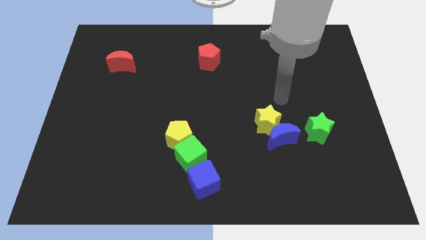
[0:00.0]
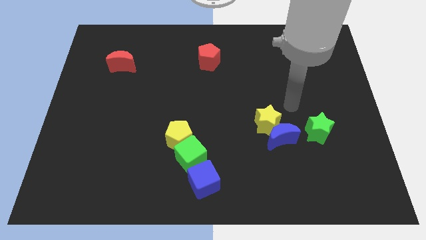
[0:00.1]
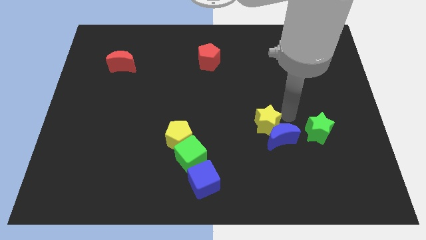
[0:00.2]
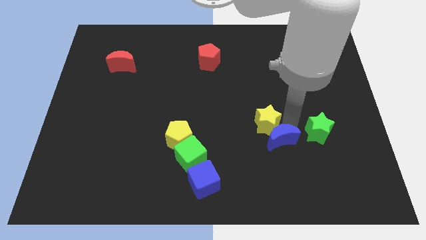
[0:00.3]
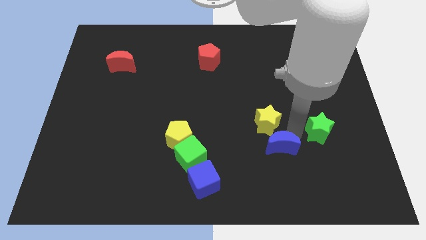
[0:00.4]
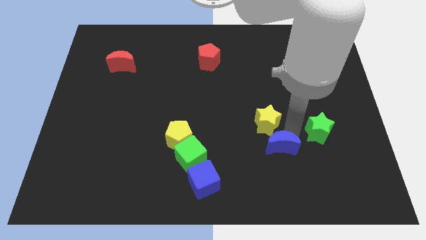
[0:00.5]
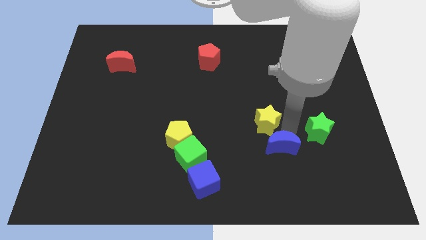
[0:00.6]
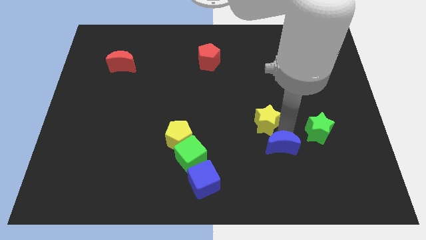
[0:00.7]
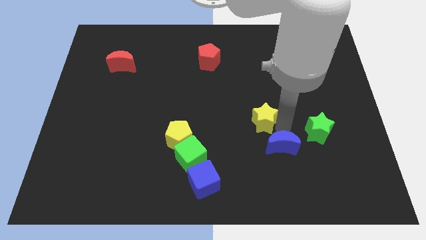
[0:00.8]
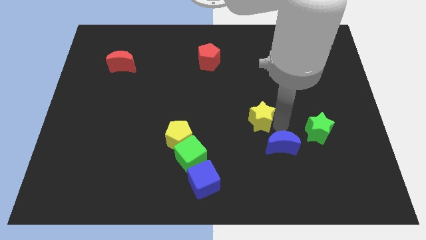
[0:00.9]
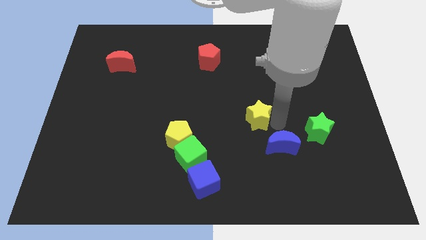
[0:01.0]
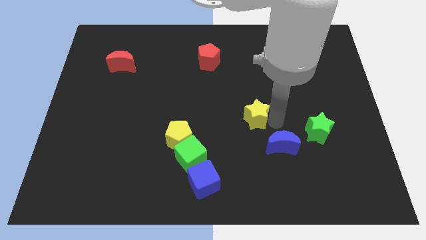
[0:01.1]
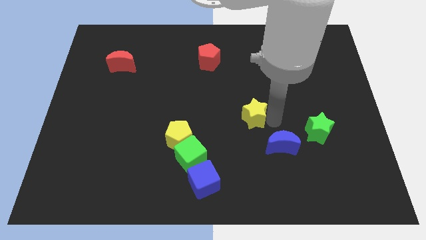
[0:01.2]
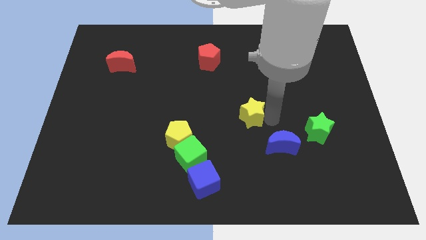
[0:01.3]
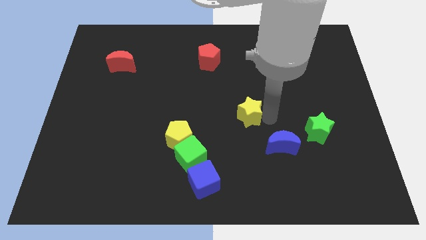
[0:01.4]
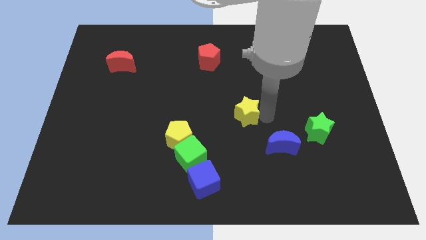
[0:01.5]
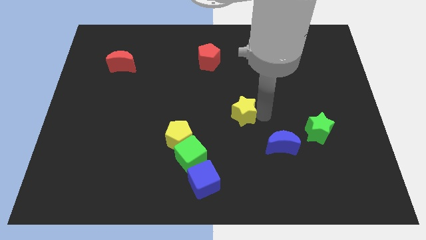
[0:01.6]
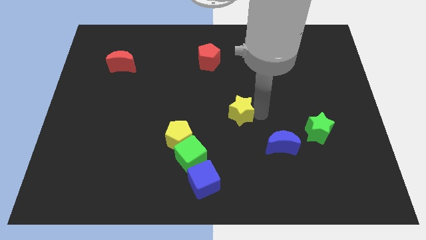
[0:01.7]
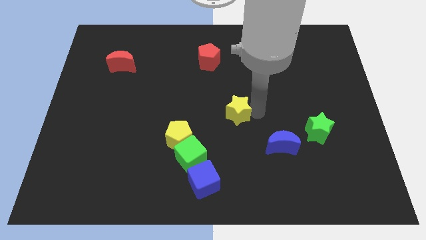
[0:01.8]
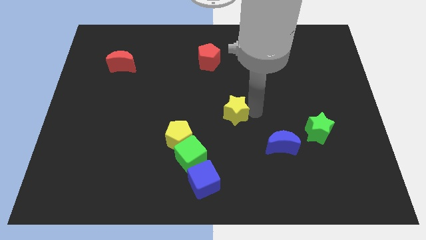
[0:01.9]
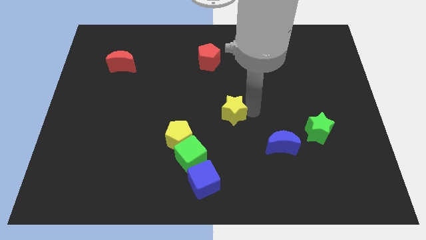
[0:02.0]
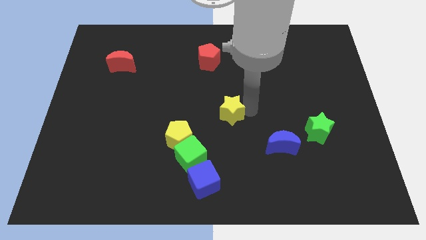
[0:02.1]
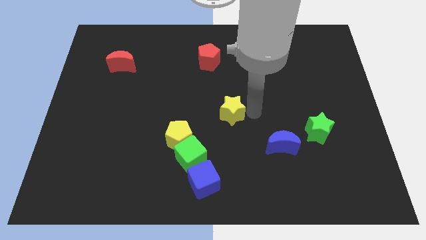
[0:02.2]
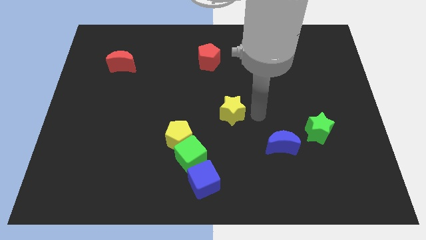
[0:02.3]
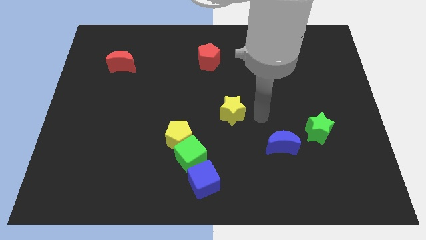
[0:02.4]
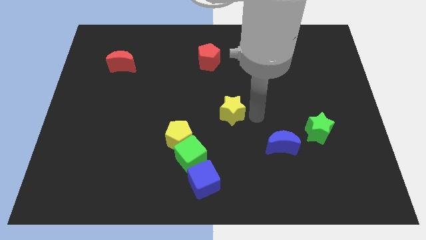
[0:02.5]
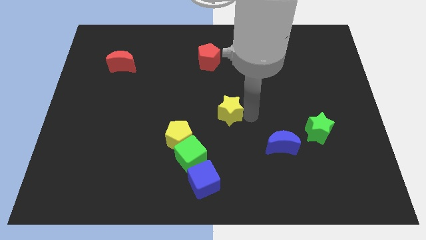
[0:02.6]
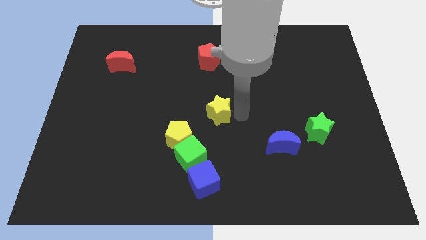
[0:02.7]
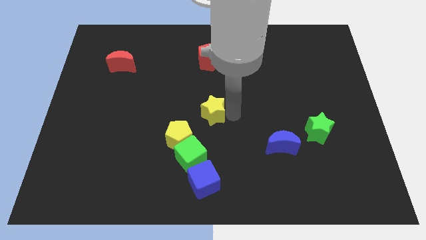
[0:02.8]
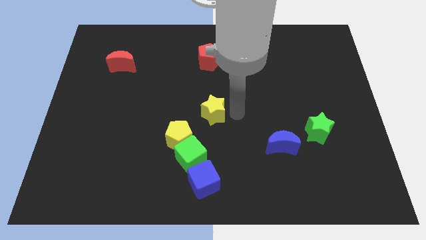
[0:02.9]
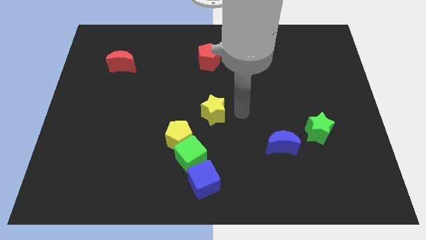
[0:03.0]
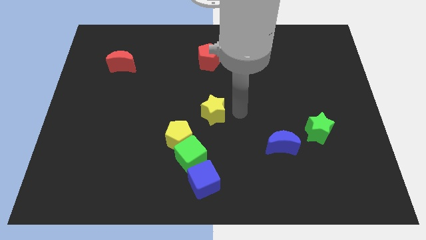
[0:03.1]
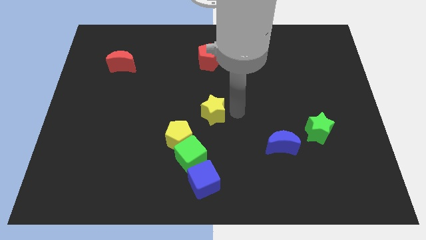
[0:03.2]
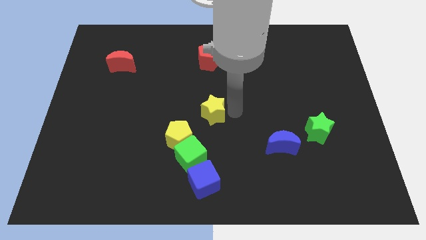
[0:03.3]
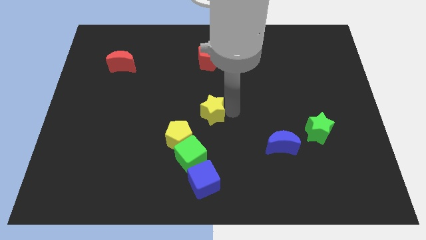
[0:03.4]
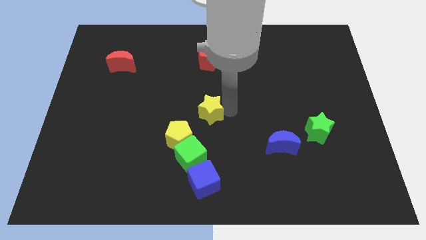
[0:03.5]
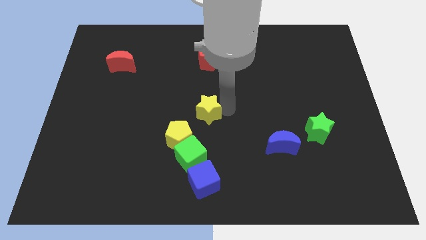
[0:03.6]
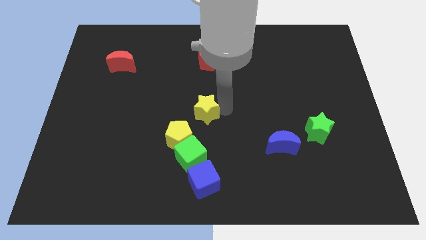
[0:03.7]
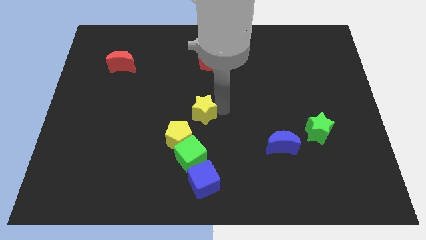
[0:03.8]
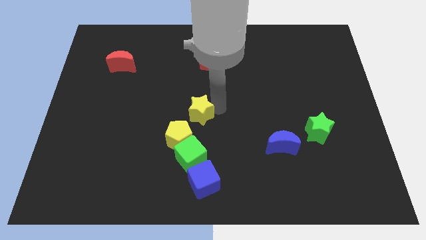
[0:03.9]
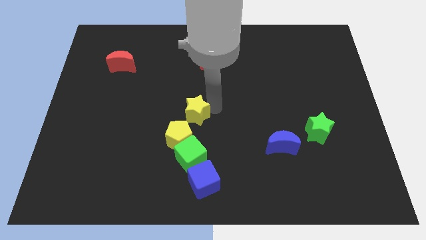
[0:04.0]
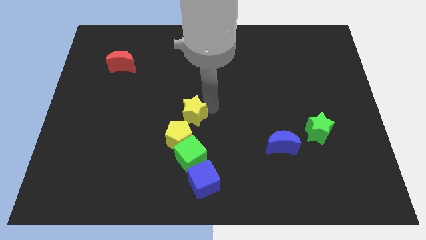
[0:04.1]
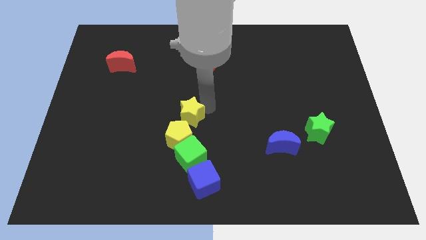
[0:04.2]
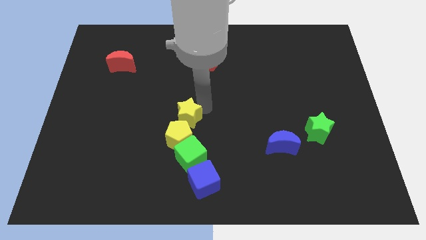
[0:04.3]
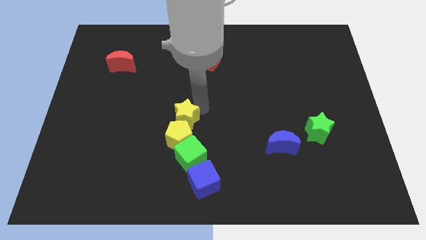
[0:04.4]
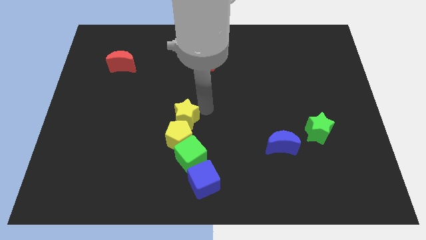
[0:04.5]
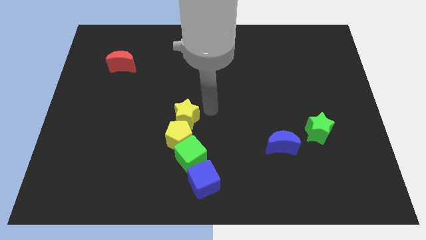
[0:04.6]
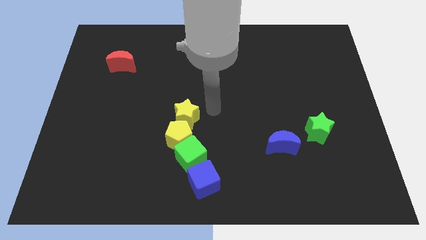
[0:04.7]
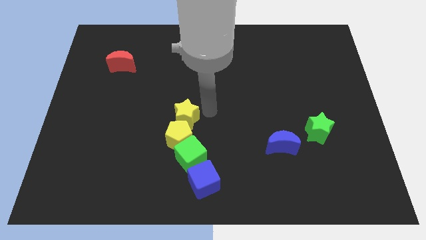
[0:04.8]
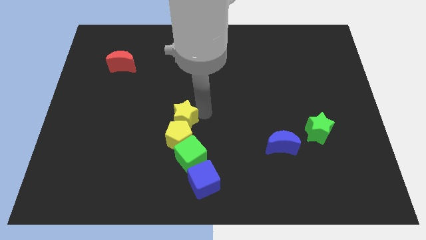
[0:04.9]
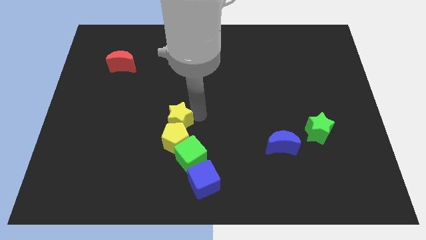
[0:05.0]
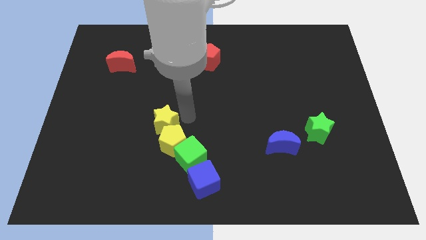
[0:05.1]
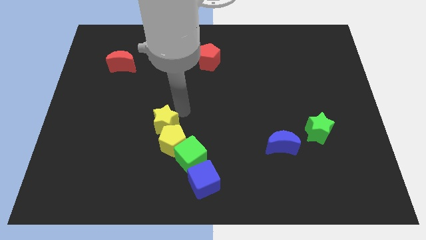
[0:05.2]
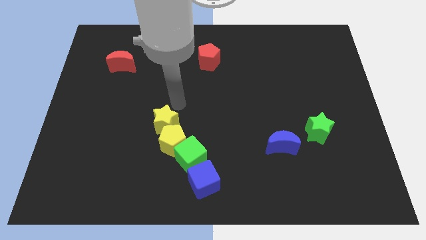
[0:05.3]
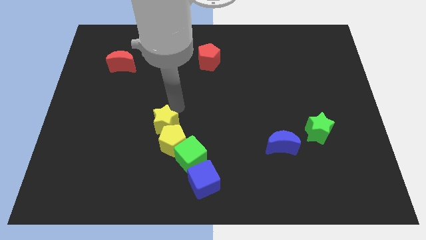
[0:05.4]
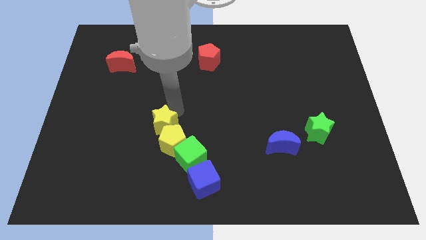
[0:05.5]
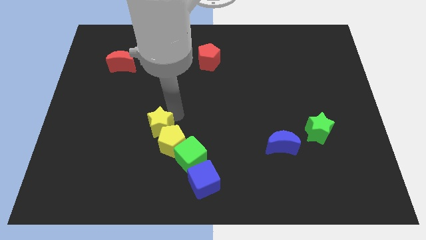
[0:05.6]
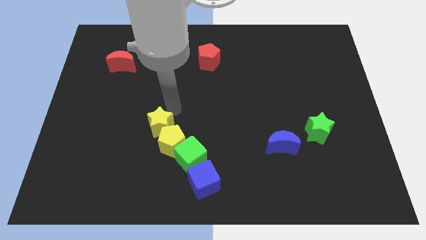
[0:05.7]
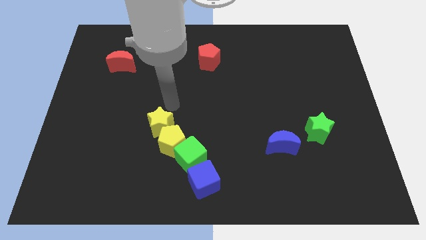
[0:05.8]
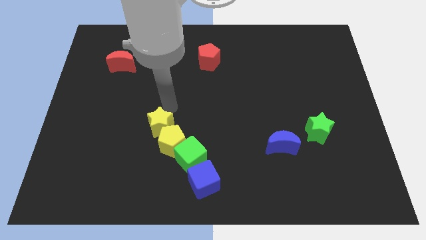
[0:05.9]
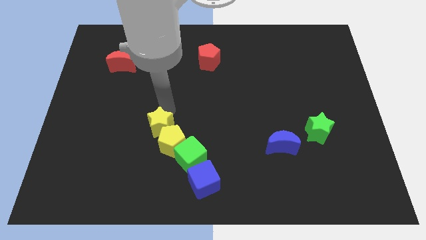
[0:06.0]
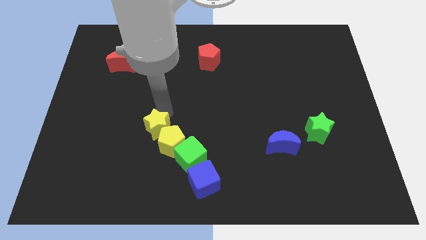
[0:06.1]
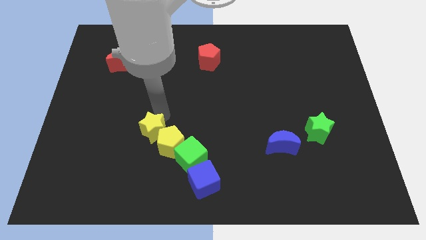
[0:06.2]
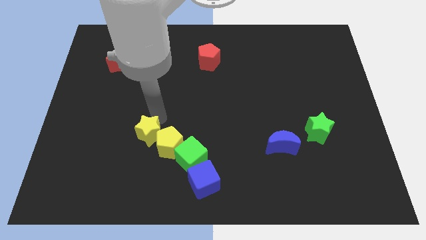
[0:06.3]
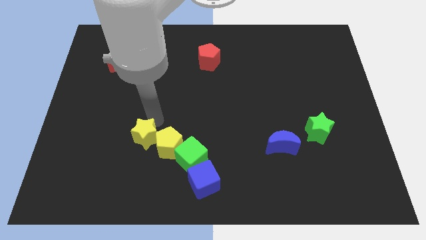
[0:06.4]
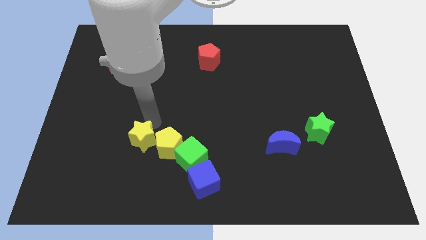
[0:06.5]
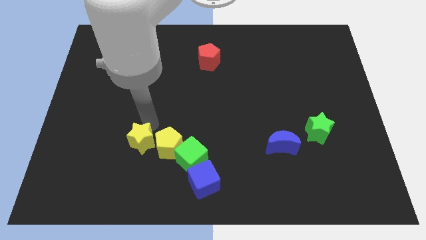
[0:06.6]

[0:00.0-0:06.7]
slide the yellow star to the bottom left side of the yellow pentagon
